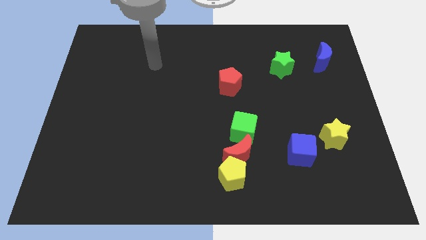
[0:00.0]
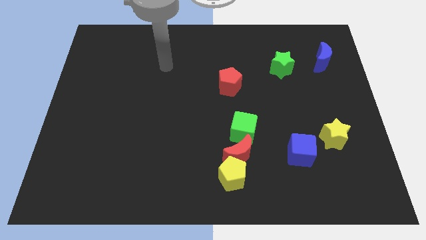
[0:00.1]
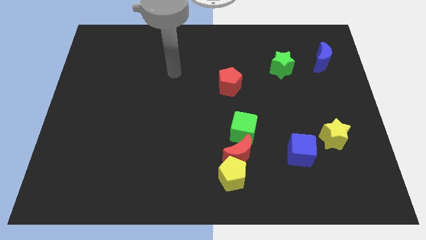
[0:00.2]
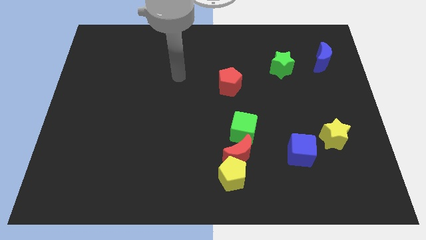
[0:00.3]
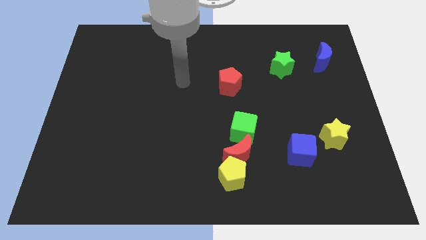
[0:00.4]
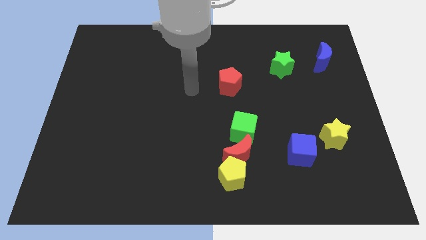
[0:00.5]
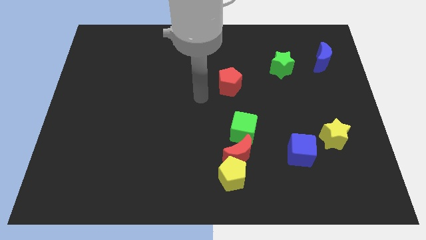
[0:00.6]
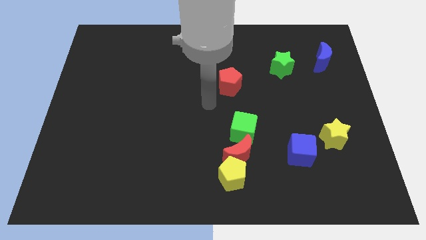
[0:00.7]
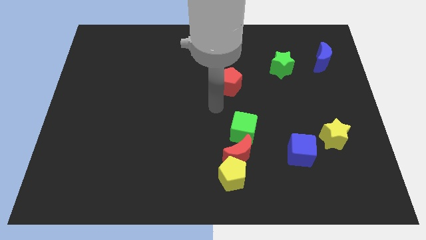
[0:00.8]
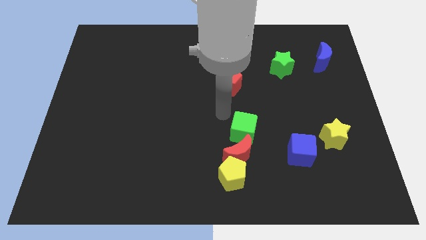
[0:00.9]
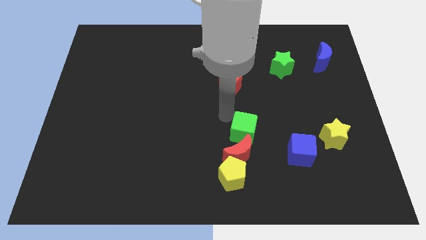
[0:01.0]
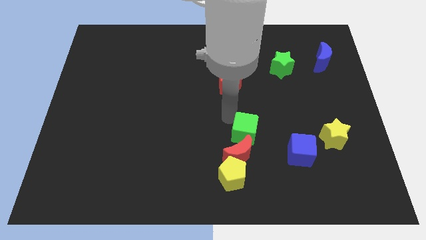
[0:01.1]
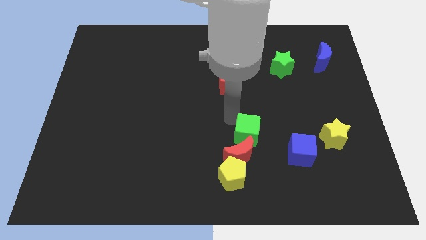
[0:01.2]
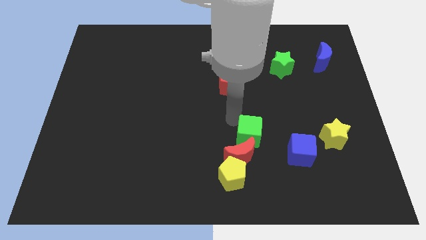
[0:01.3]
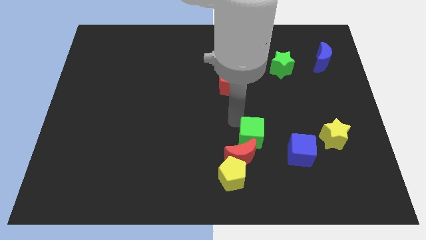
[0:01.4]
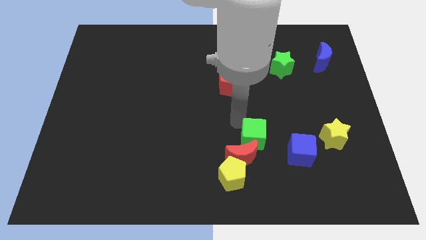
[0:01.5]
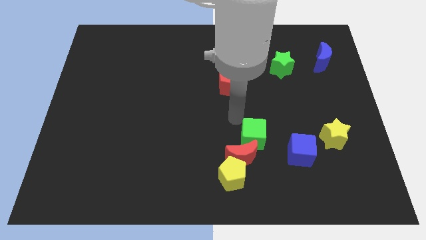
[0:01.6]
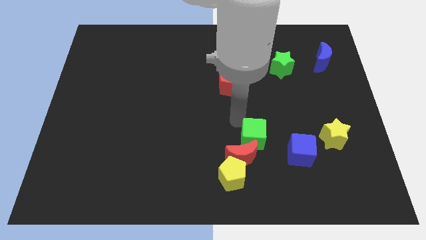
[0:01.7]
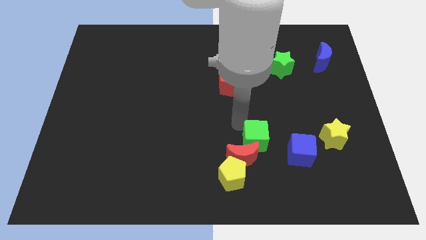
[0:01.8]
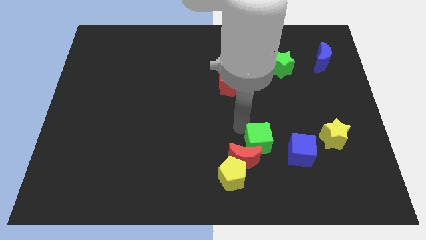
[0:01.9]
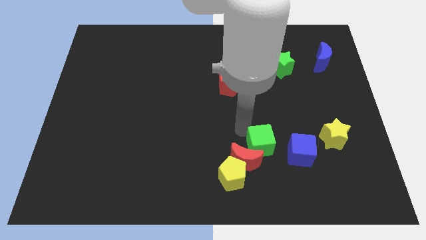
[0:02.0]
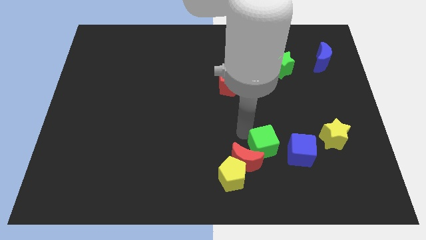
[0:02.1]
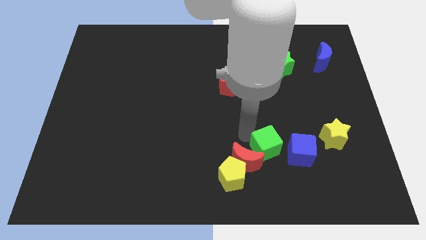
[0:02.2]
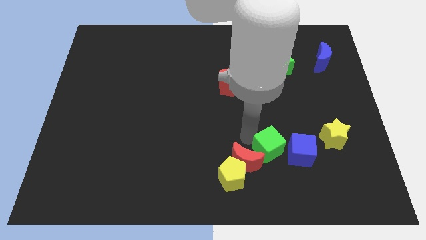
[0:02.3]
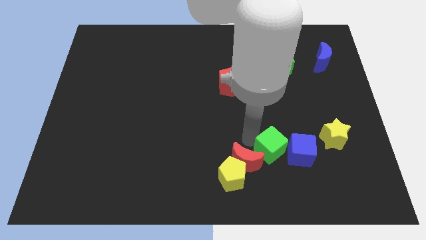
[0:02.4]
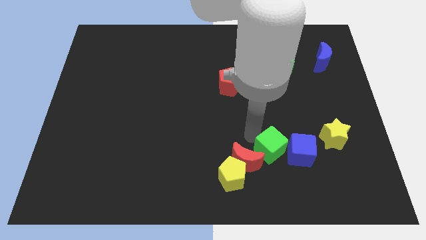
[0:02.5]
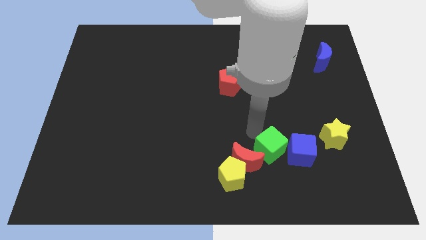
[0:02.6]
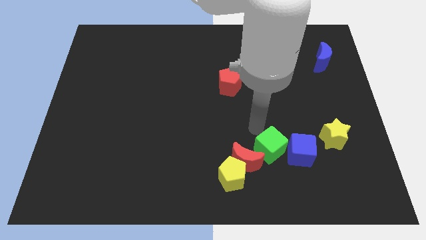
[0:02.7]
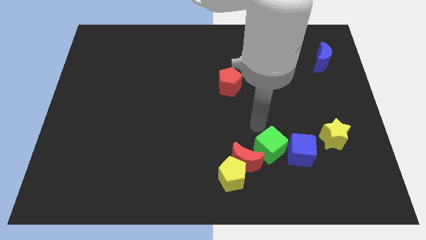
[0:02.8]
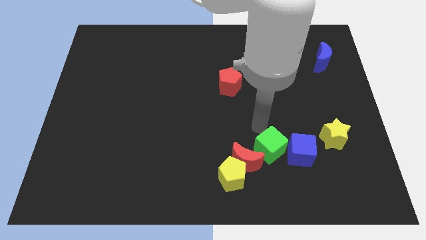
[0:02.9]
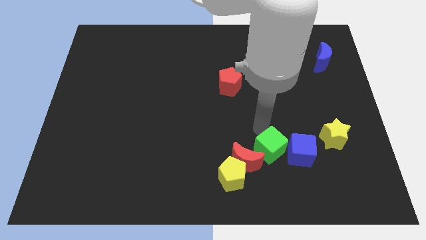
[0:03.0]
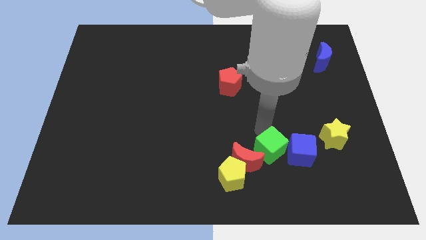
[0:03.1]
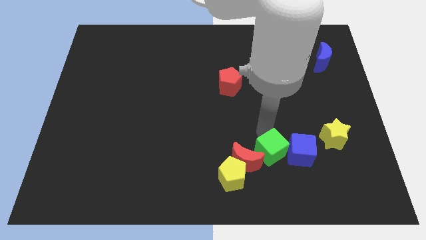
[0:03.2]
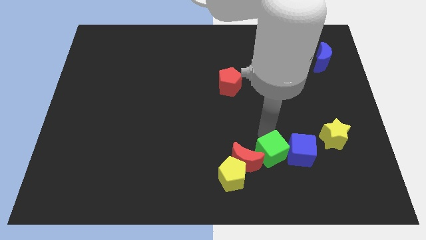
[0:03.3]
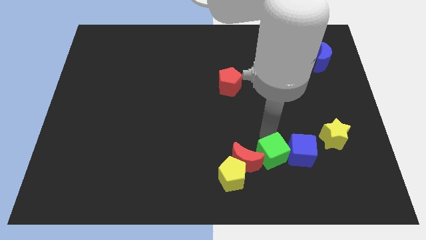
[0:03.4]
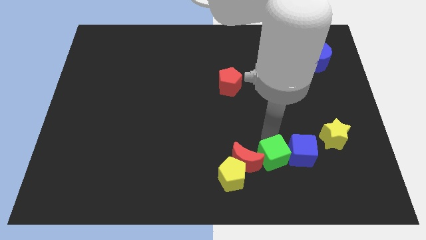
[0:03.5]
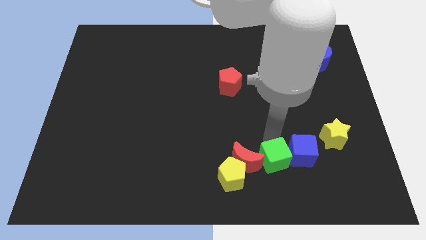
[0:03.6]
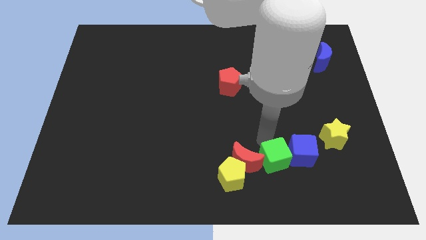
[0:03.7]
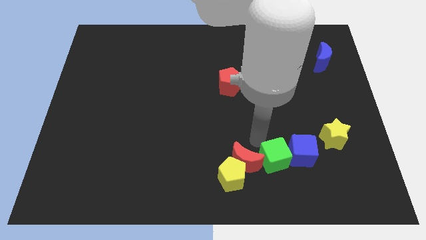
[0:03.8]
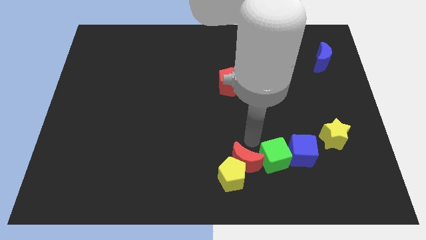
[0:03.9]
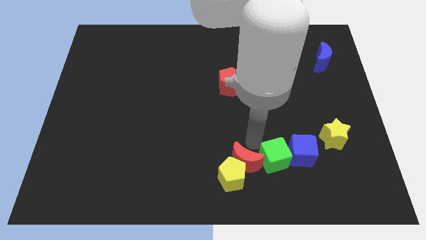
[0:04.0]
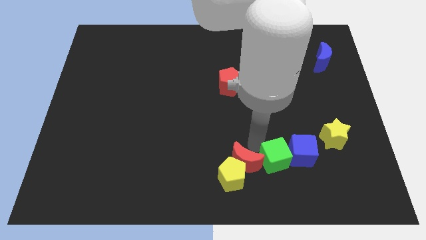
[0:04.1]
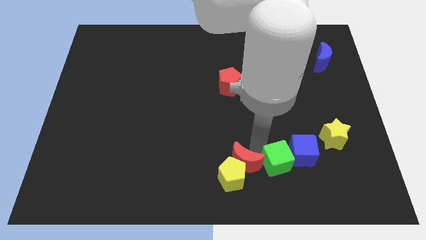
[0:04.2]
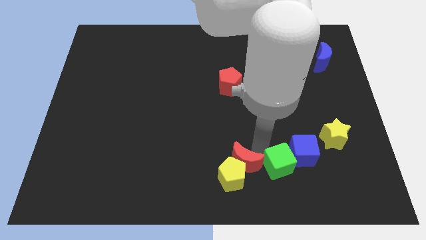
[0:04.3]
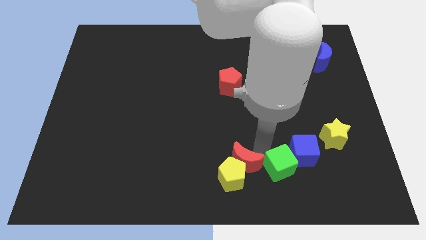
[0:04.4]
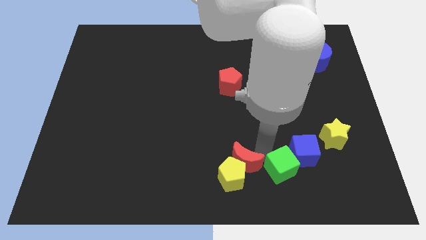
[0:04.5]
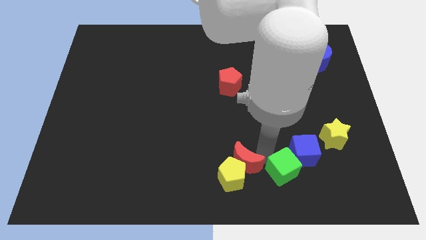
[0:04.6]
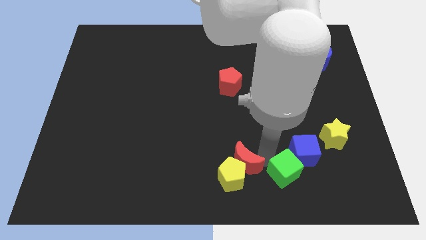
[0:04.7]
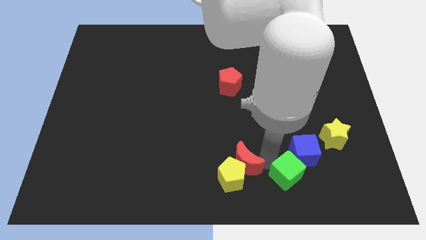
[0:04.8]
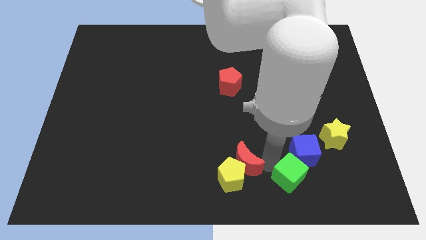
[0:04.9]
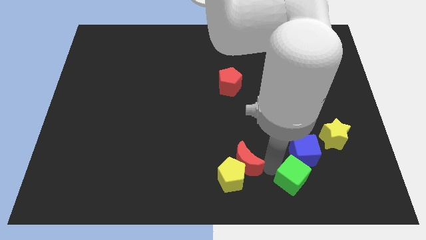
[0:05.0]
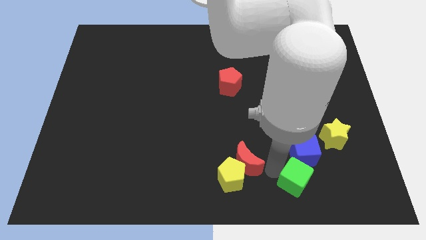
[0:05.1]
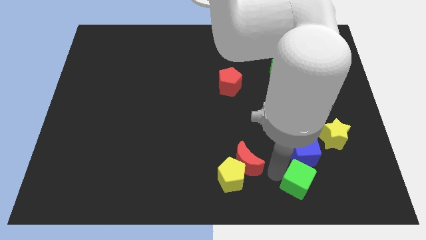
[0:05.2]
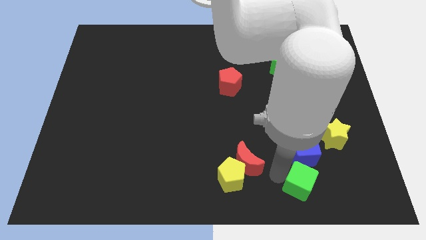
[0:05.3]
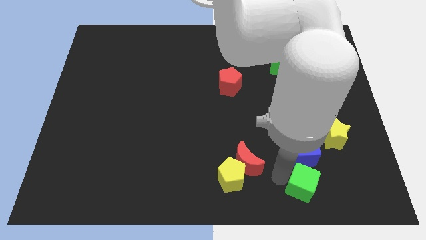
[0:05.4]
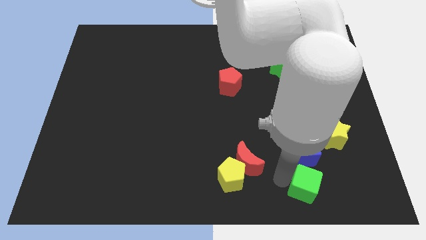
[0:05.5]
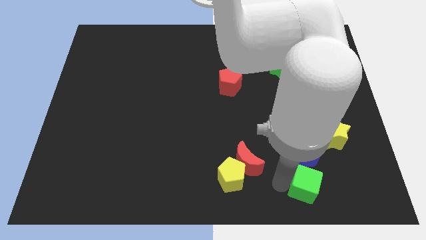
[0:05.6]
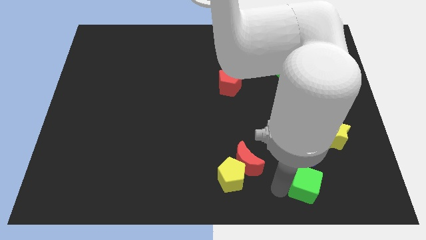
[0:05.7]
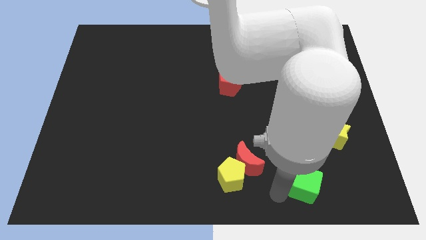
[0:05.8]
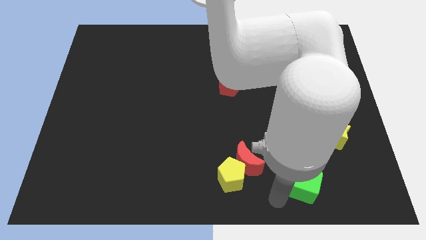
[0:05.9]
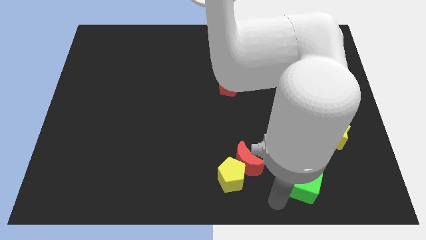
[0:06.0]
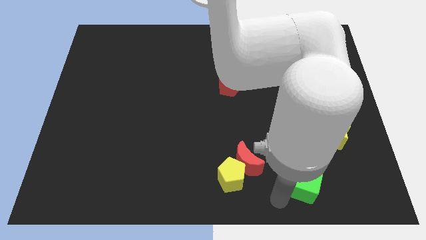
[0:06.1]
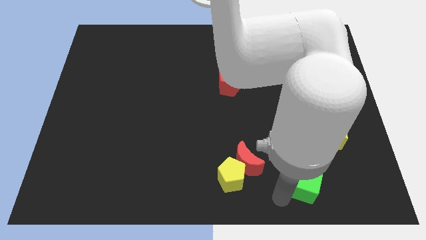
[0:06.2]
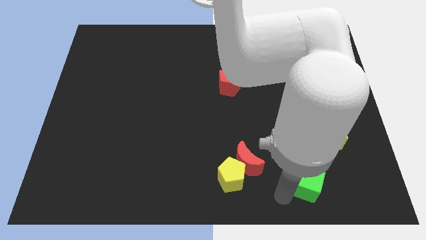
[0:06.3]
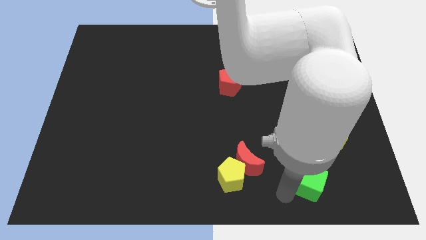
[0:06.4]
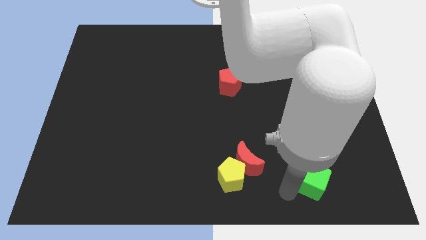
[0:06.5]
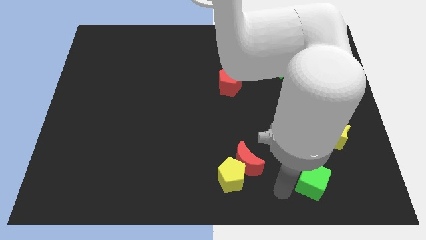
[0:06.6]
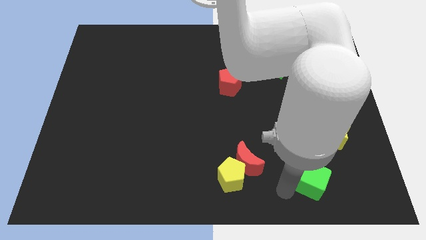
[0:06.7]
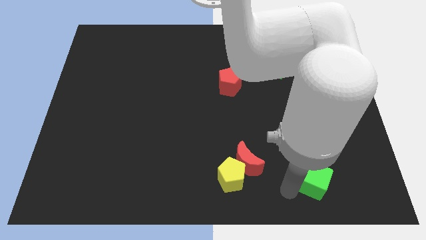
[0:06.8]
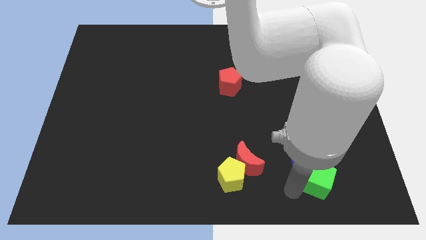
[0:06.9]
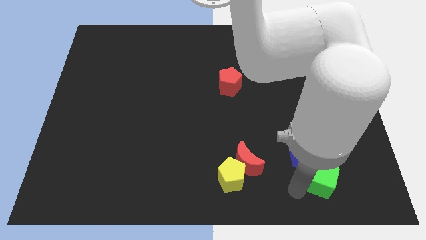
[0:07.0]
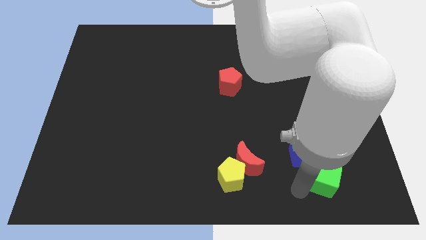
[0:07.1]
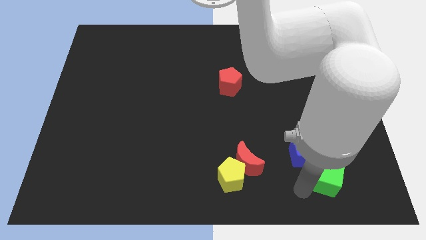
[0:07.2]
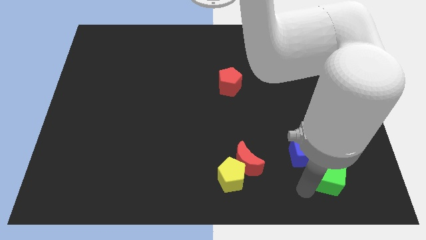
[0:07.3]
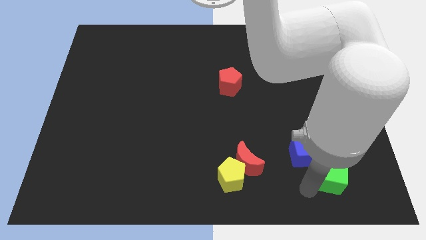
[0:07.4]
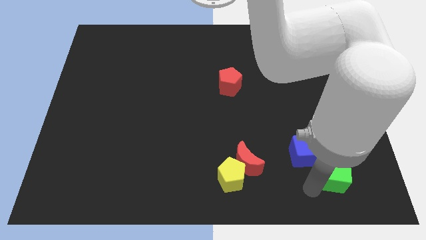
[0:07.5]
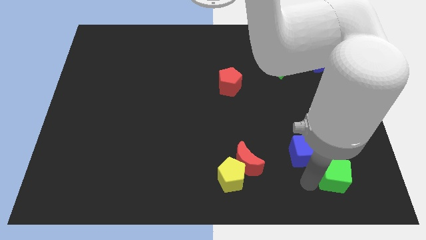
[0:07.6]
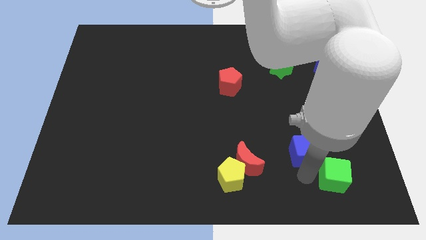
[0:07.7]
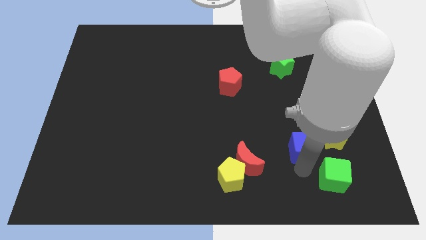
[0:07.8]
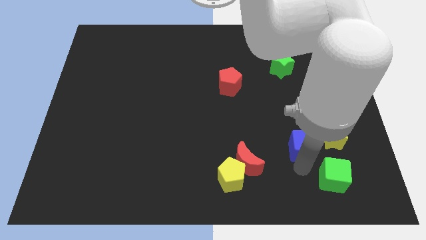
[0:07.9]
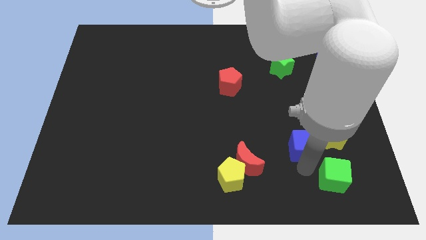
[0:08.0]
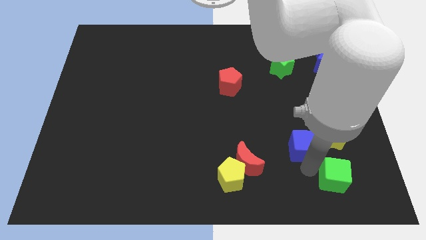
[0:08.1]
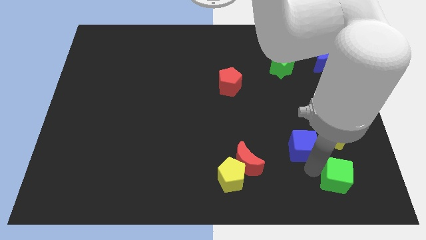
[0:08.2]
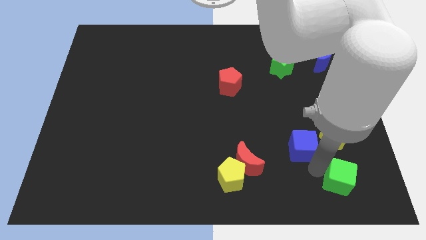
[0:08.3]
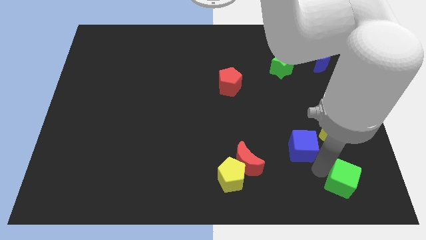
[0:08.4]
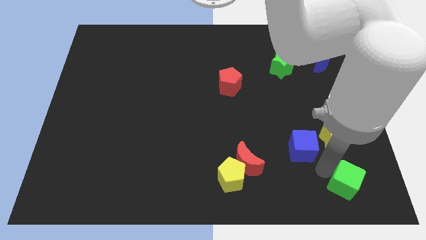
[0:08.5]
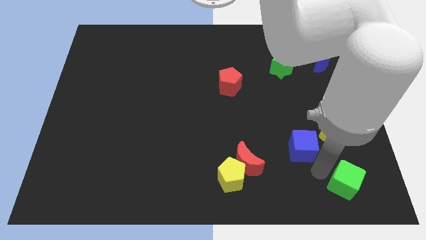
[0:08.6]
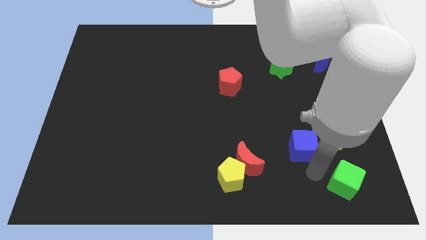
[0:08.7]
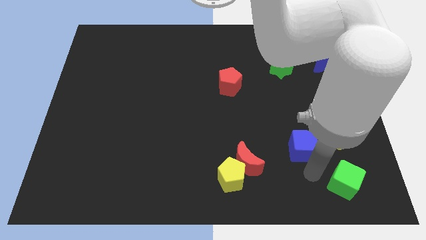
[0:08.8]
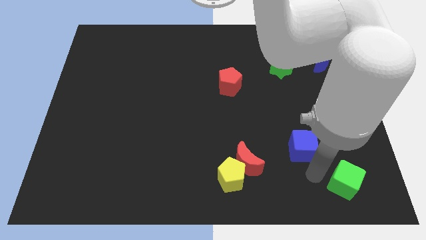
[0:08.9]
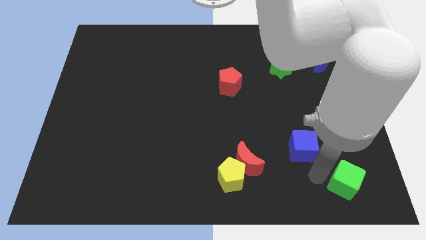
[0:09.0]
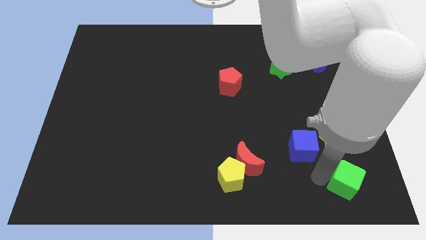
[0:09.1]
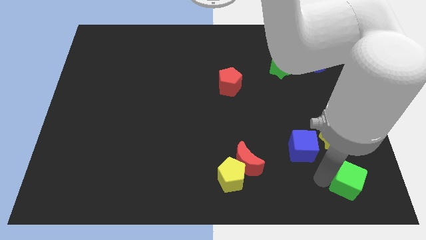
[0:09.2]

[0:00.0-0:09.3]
push the green cube to the lower right corner
